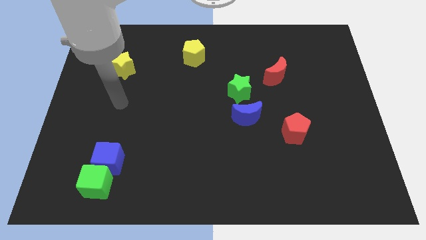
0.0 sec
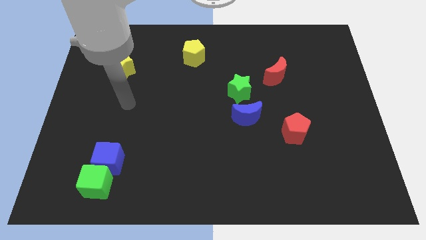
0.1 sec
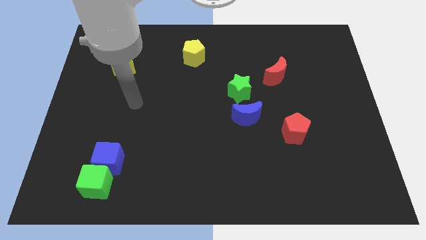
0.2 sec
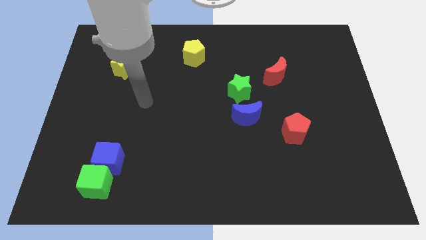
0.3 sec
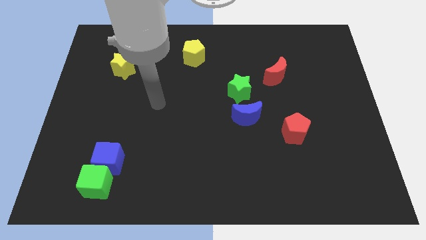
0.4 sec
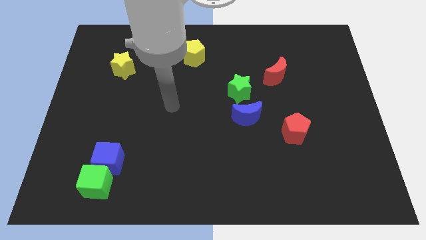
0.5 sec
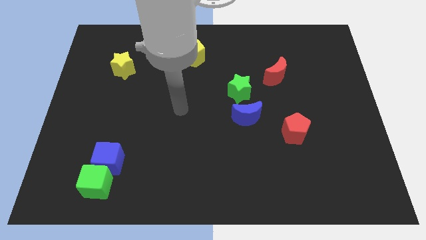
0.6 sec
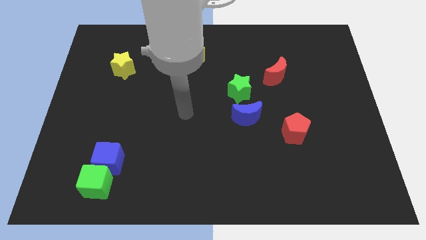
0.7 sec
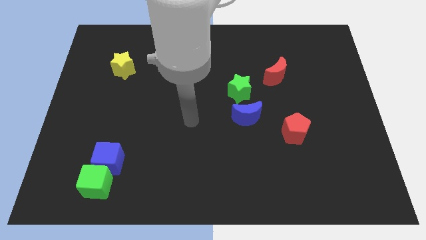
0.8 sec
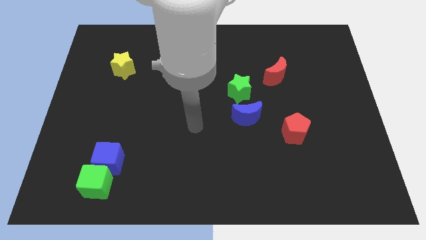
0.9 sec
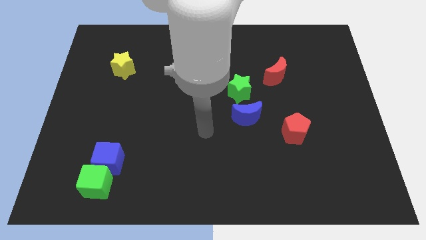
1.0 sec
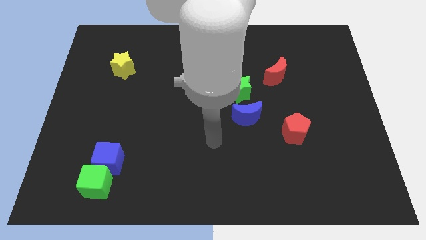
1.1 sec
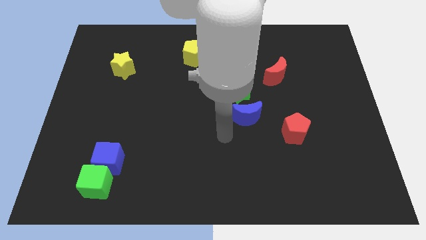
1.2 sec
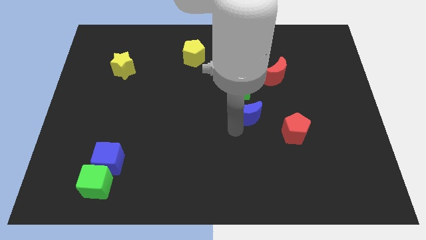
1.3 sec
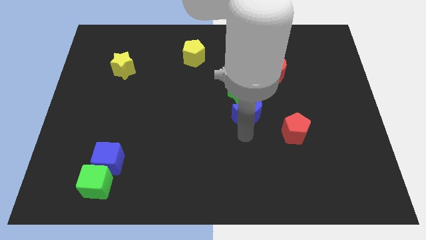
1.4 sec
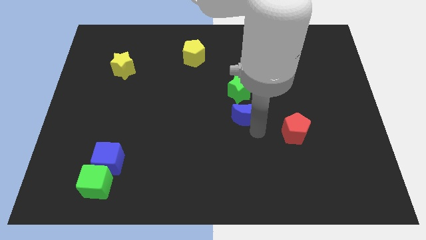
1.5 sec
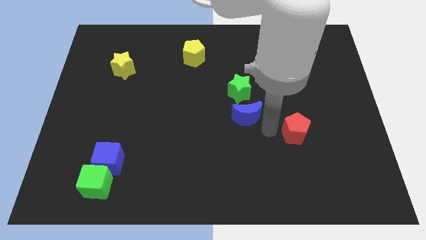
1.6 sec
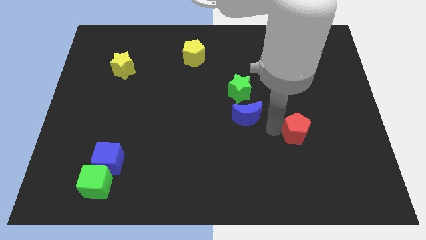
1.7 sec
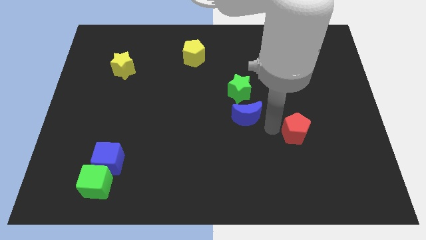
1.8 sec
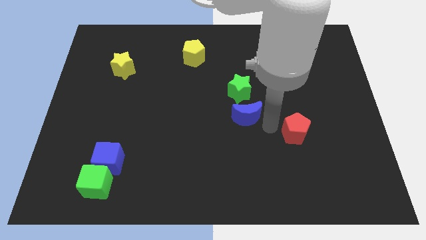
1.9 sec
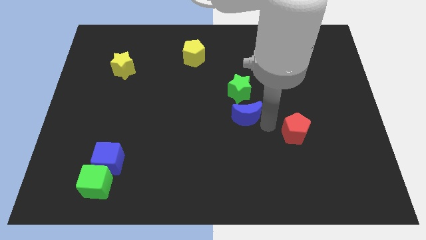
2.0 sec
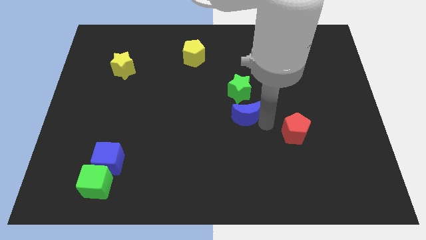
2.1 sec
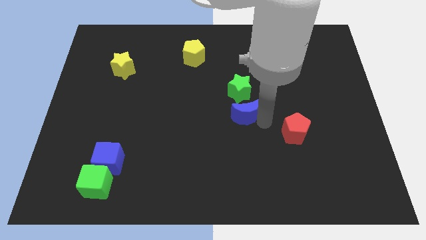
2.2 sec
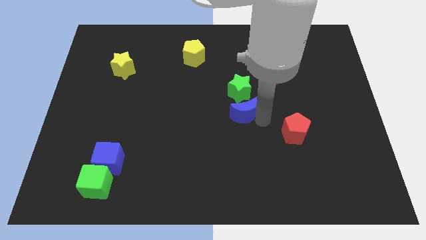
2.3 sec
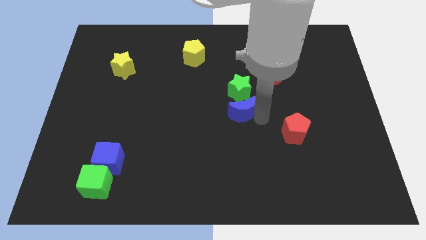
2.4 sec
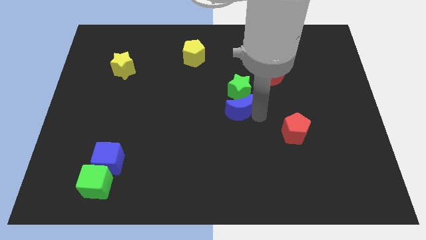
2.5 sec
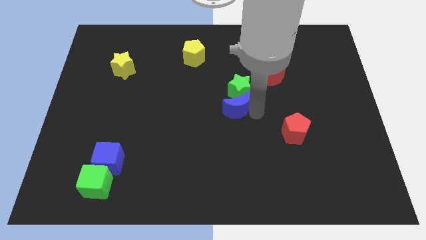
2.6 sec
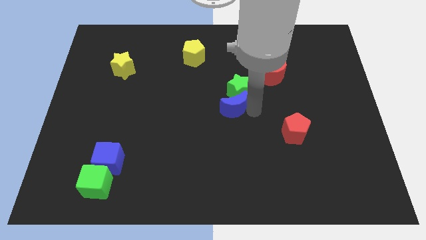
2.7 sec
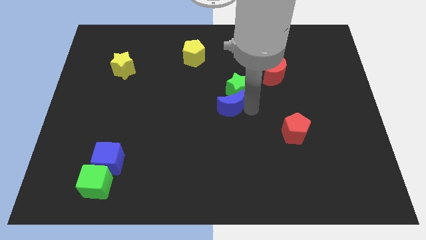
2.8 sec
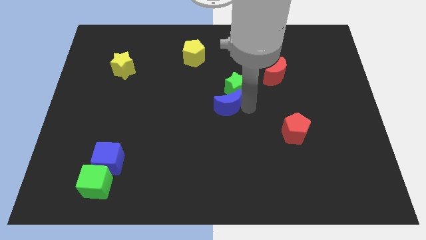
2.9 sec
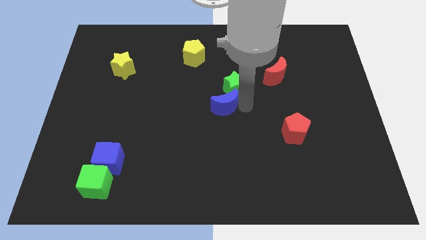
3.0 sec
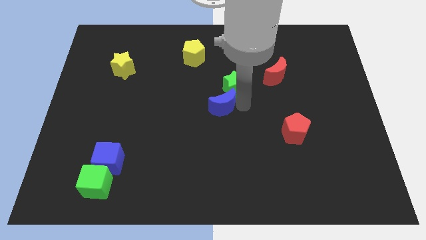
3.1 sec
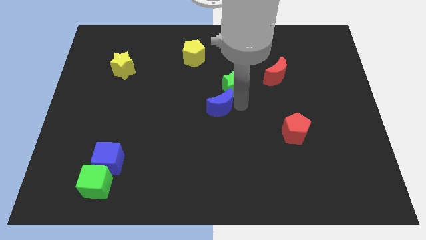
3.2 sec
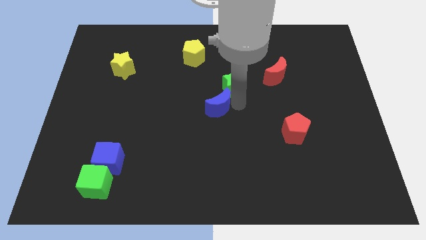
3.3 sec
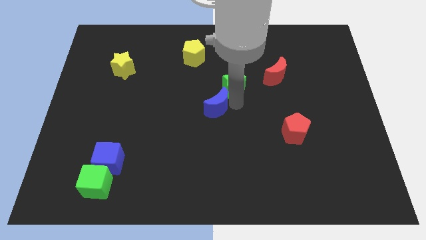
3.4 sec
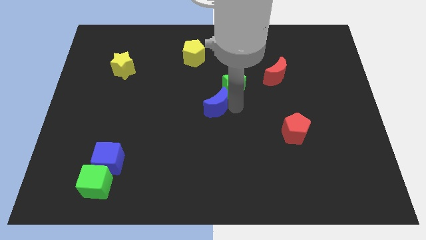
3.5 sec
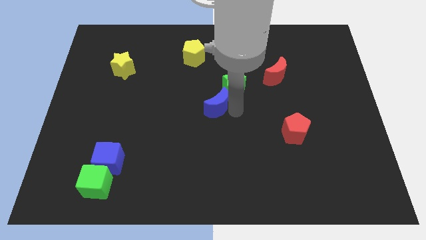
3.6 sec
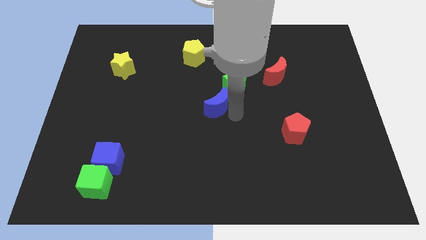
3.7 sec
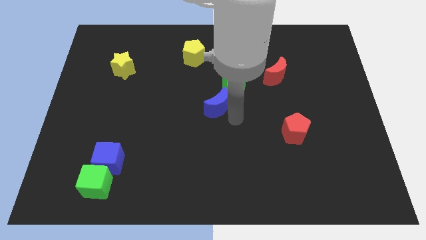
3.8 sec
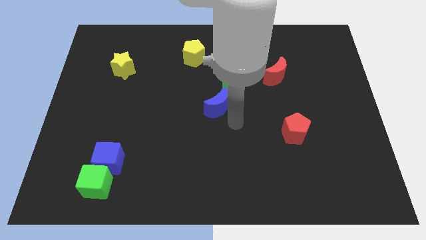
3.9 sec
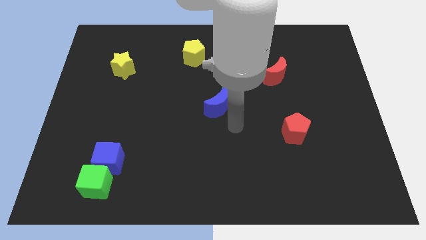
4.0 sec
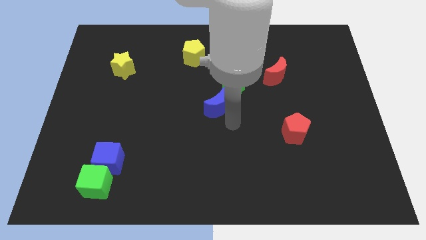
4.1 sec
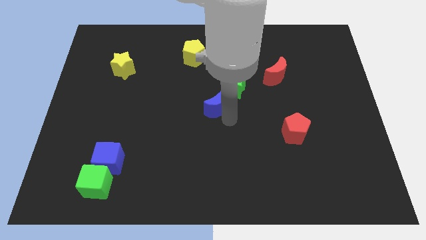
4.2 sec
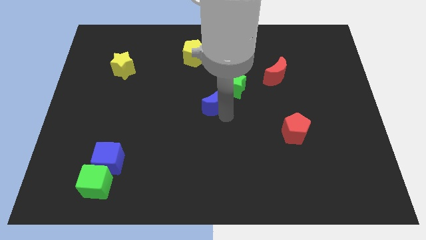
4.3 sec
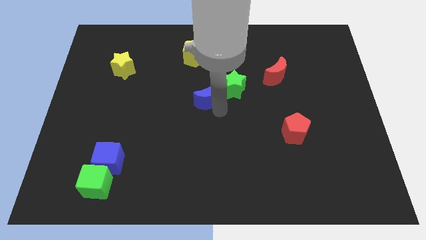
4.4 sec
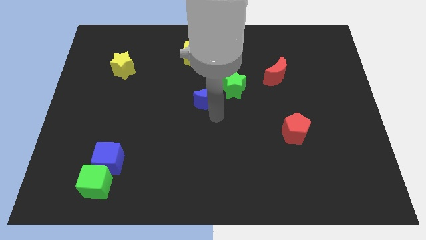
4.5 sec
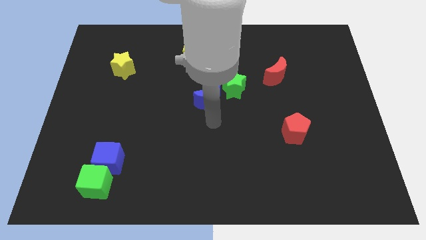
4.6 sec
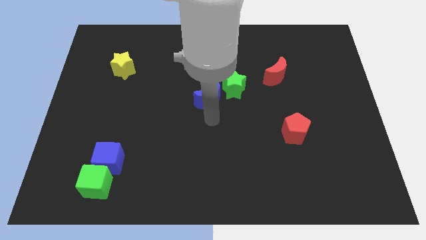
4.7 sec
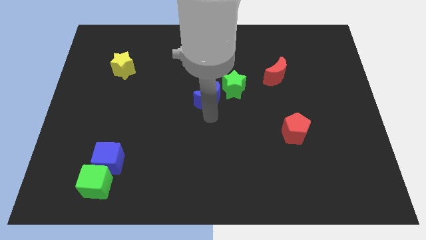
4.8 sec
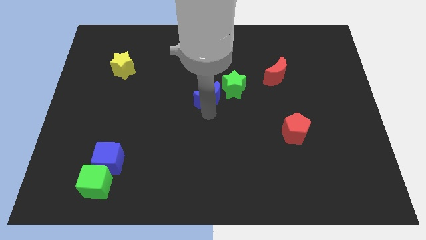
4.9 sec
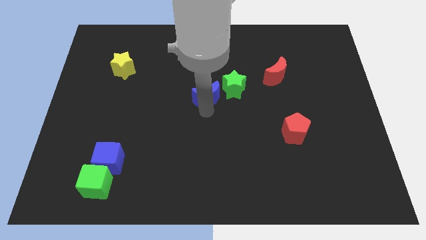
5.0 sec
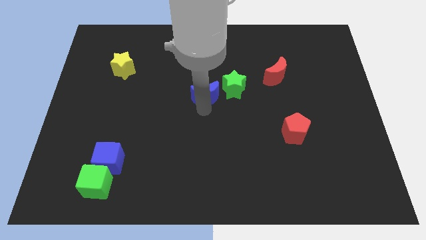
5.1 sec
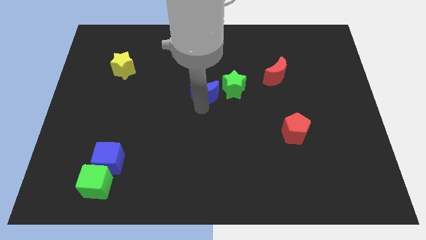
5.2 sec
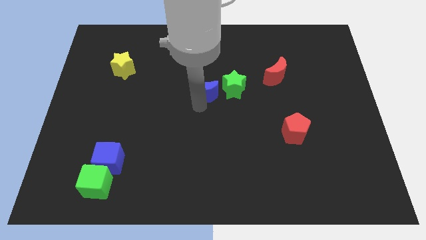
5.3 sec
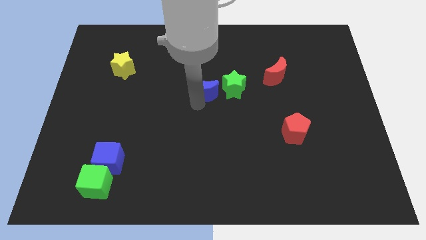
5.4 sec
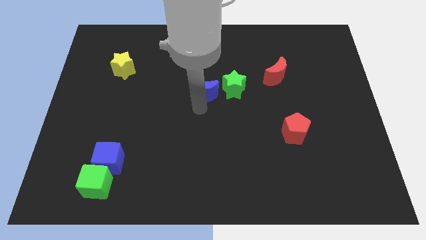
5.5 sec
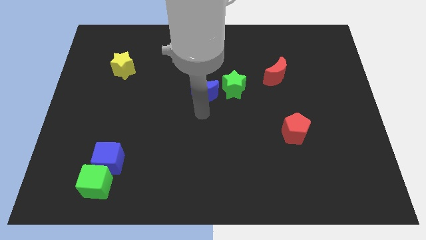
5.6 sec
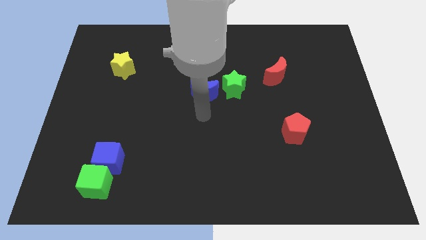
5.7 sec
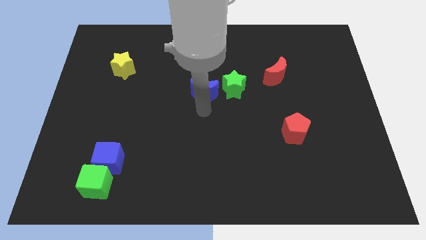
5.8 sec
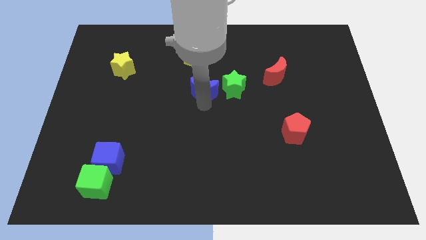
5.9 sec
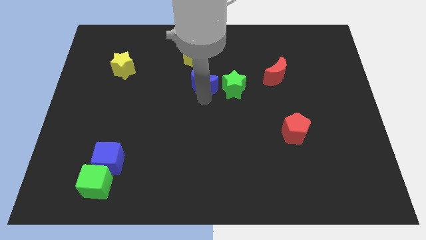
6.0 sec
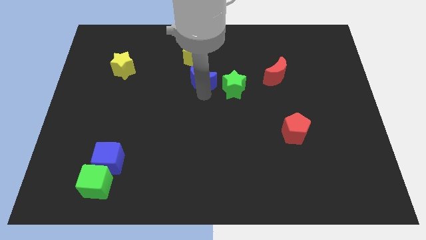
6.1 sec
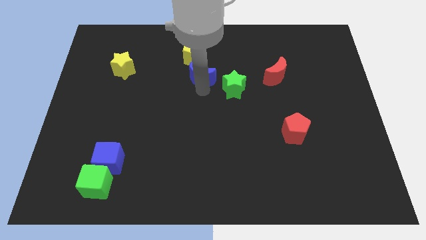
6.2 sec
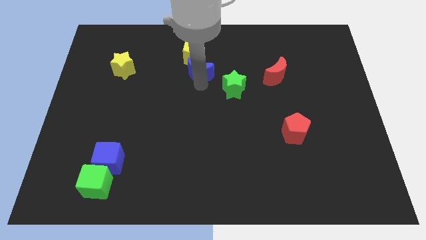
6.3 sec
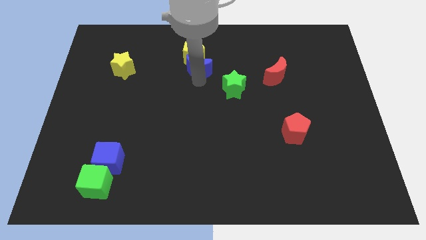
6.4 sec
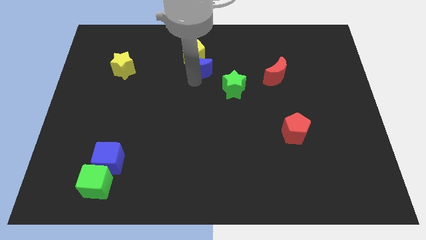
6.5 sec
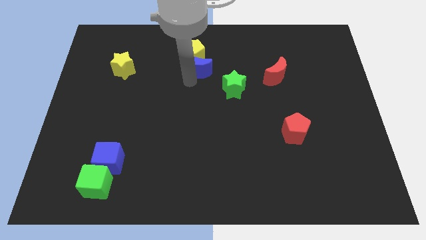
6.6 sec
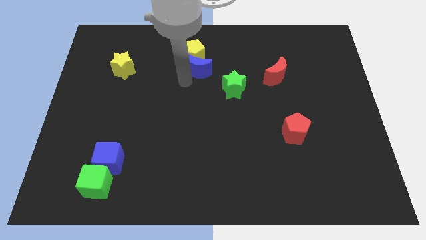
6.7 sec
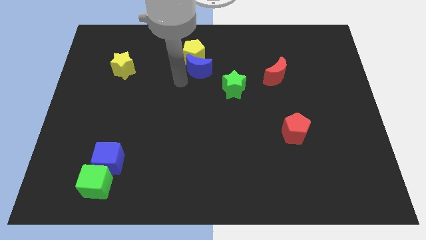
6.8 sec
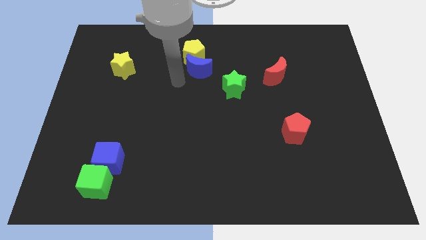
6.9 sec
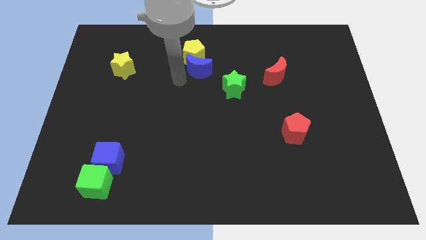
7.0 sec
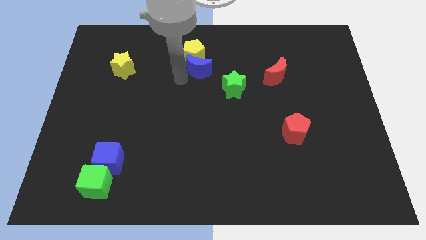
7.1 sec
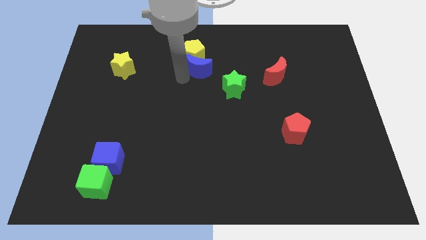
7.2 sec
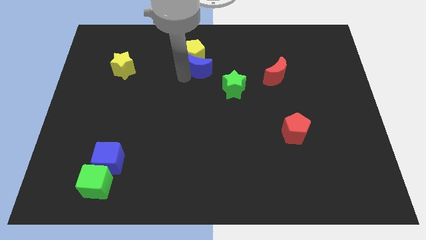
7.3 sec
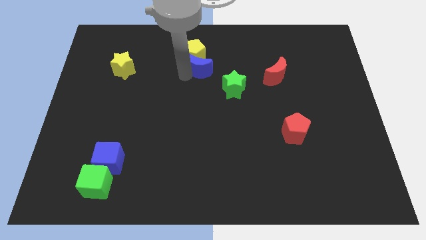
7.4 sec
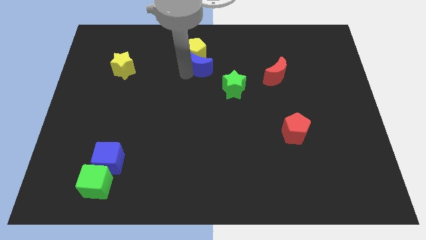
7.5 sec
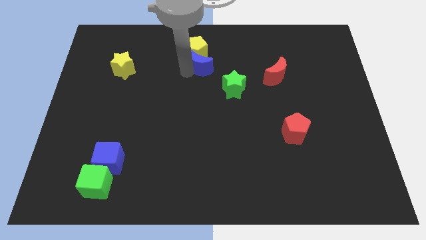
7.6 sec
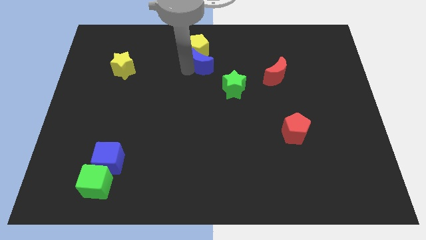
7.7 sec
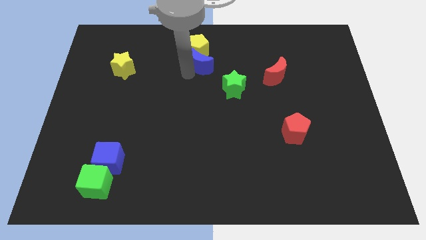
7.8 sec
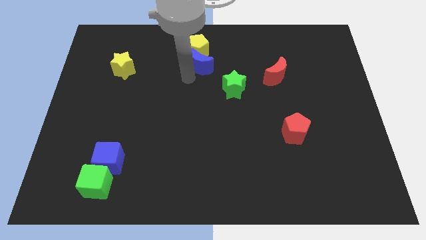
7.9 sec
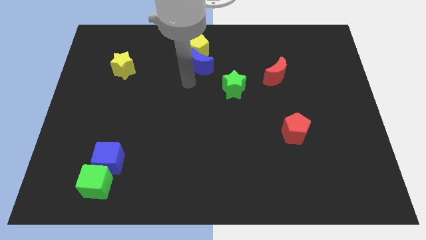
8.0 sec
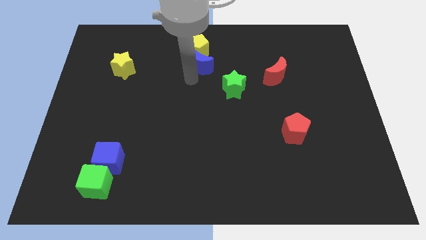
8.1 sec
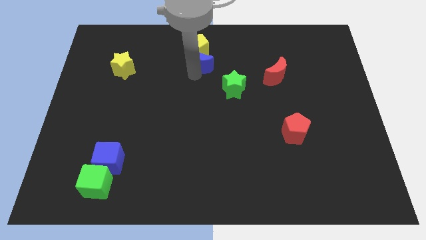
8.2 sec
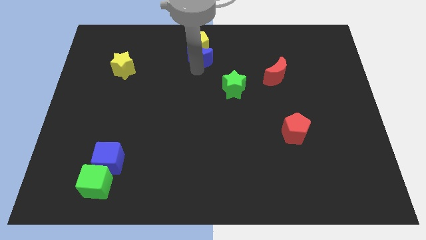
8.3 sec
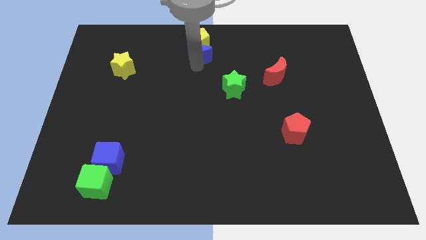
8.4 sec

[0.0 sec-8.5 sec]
push the blue moon to the top side
